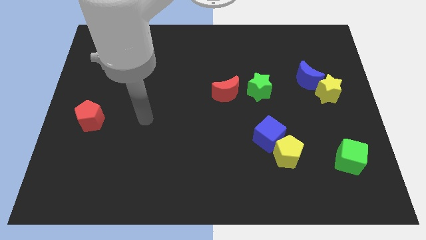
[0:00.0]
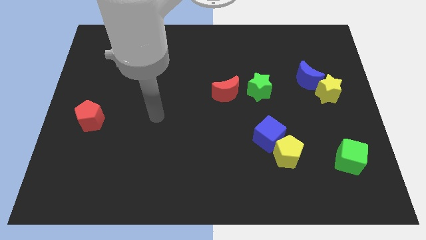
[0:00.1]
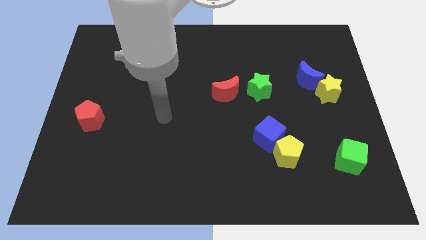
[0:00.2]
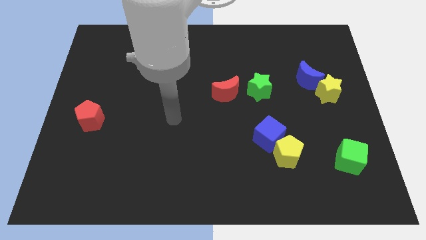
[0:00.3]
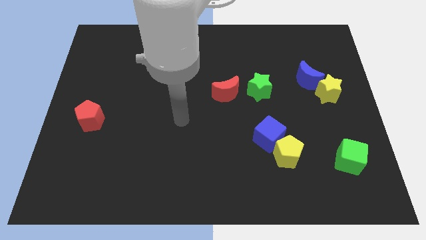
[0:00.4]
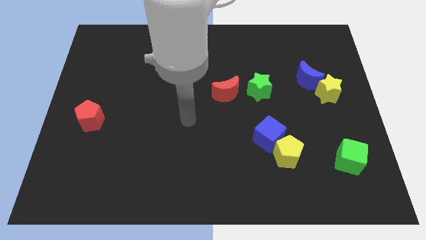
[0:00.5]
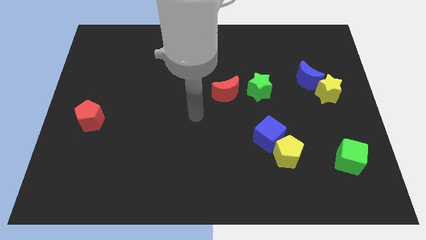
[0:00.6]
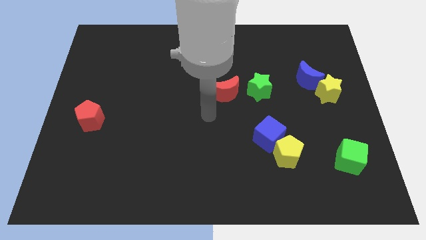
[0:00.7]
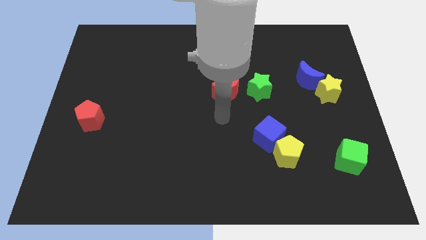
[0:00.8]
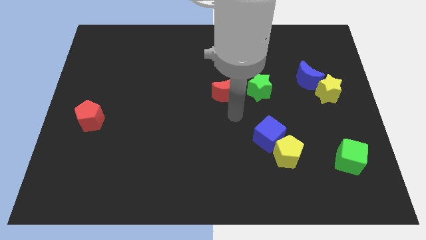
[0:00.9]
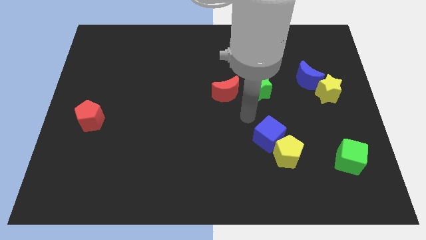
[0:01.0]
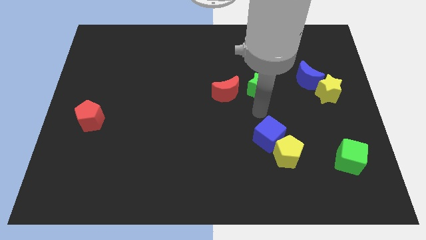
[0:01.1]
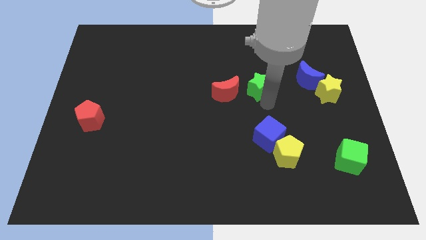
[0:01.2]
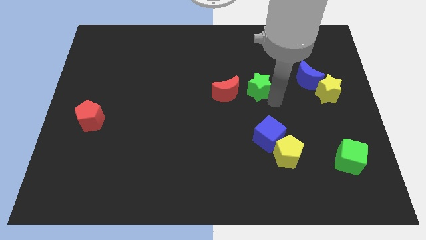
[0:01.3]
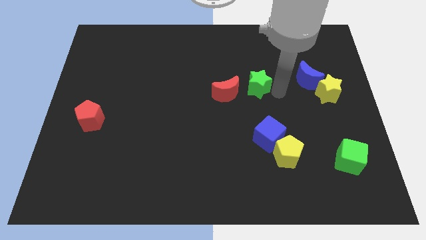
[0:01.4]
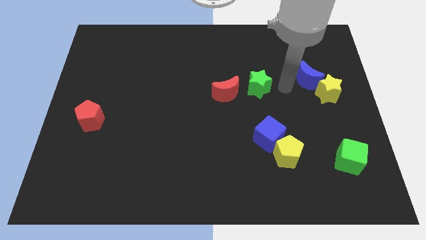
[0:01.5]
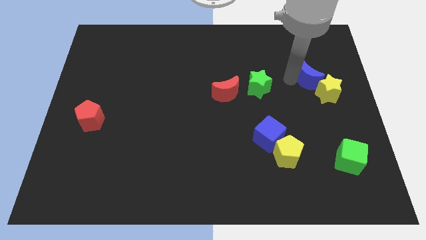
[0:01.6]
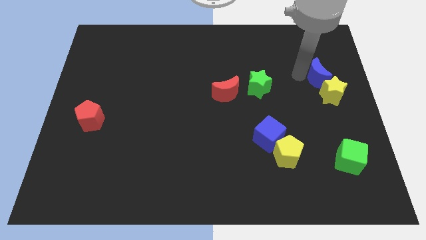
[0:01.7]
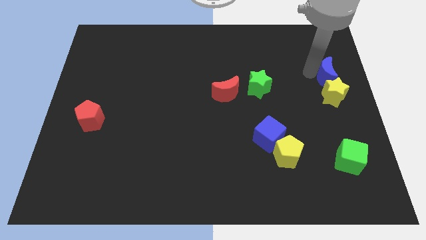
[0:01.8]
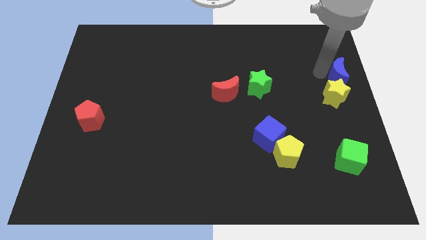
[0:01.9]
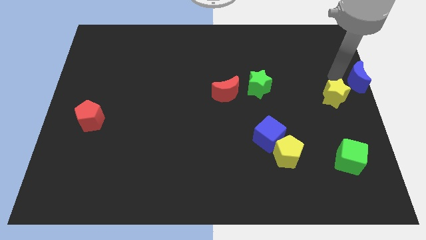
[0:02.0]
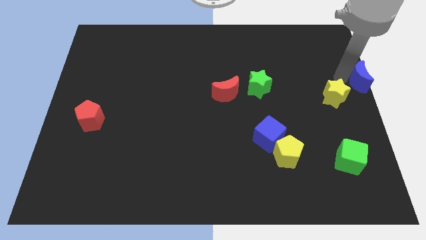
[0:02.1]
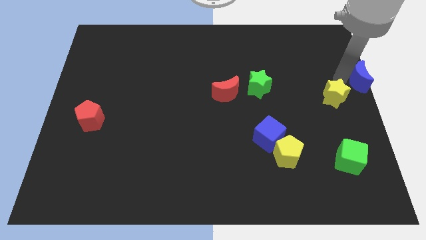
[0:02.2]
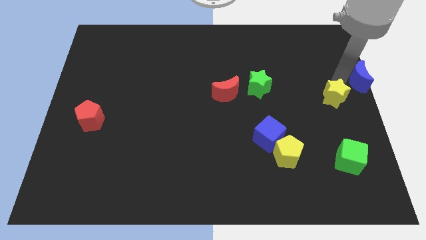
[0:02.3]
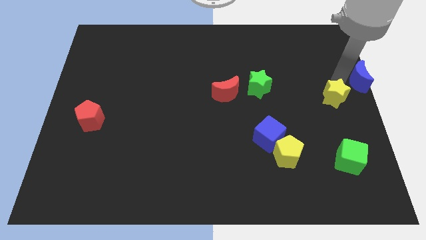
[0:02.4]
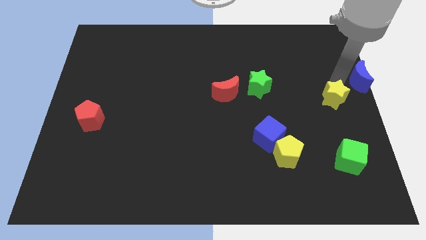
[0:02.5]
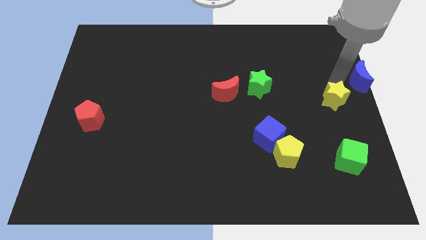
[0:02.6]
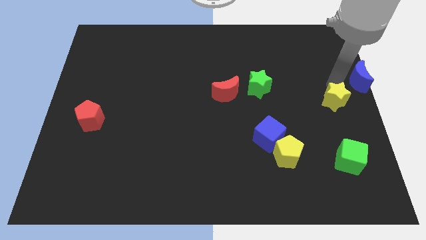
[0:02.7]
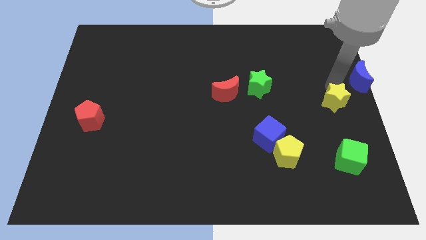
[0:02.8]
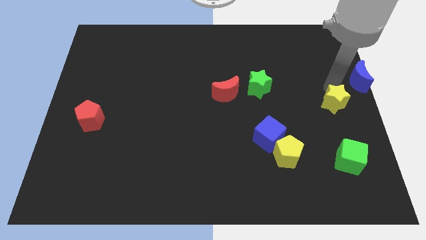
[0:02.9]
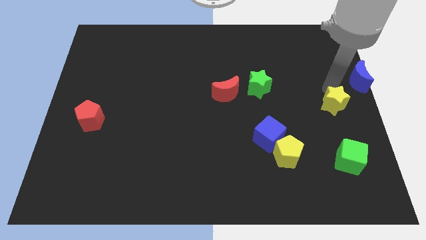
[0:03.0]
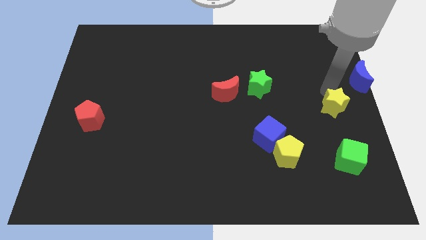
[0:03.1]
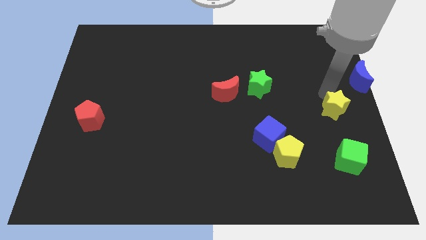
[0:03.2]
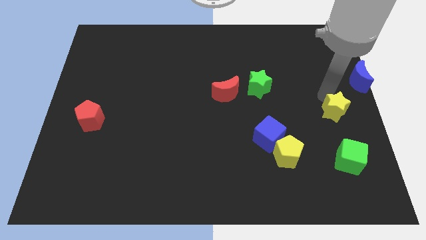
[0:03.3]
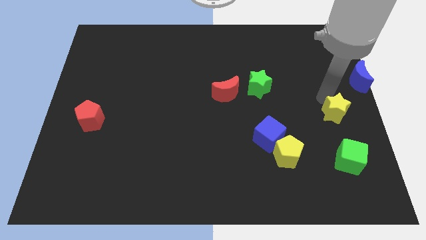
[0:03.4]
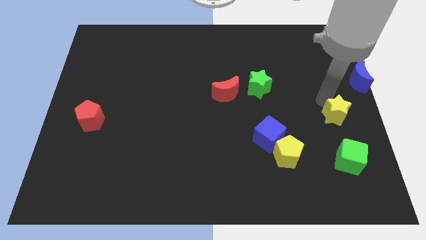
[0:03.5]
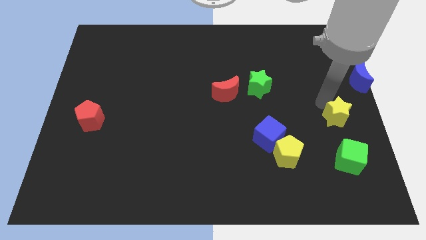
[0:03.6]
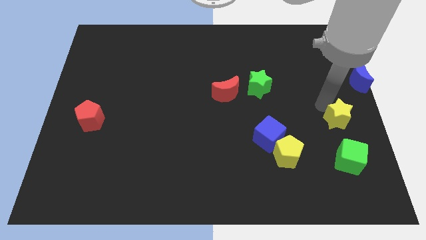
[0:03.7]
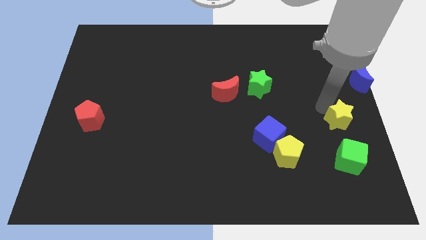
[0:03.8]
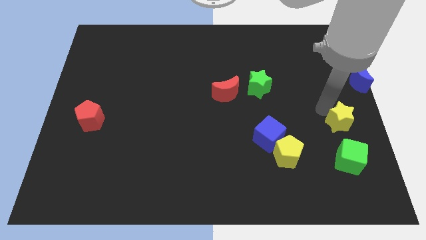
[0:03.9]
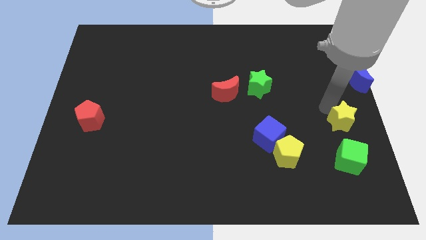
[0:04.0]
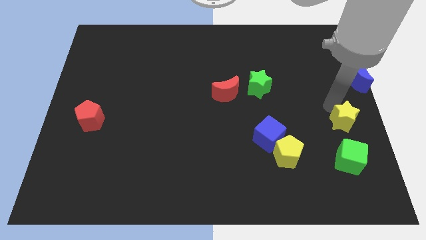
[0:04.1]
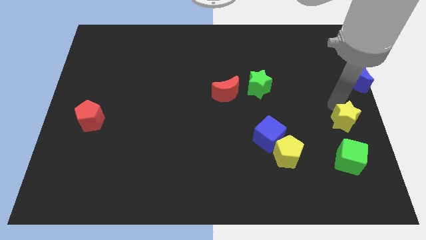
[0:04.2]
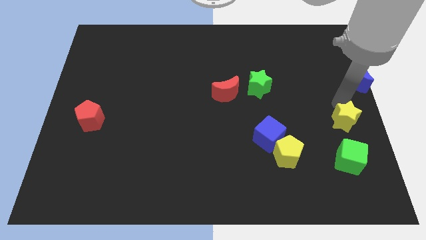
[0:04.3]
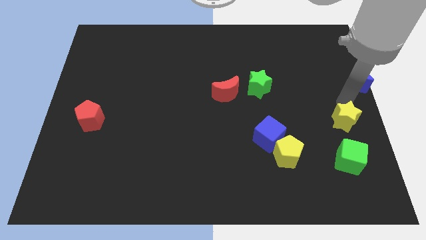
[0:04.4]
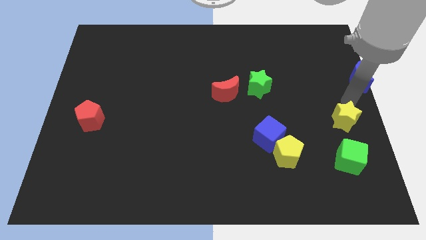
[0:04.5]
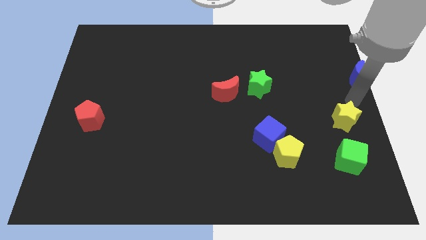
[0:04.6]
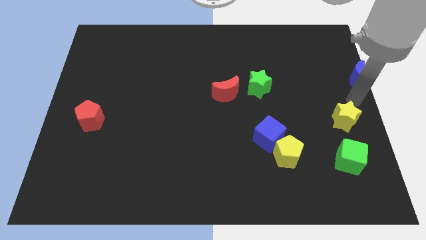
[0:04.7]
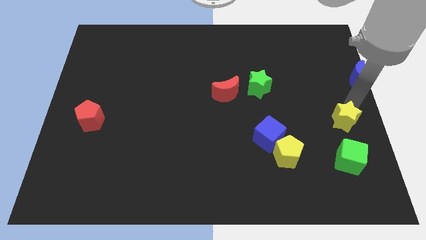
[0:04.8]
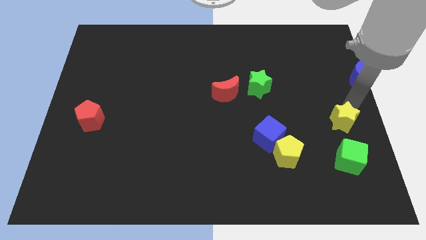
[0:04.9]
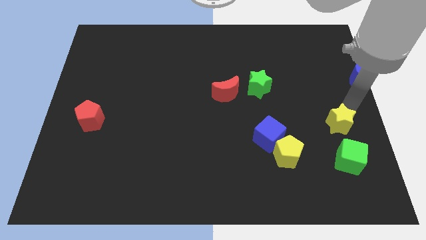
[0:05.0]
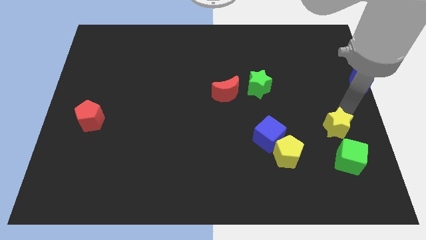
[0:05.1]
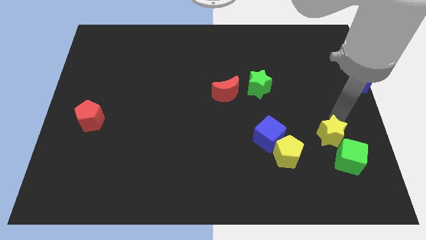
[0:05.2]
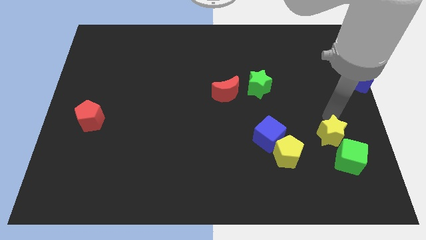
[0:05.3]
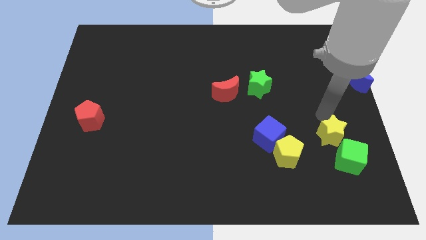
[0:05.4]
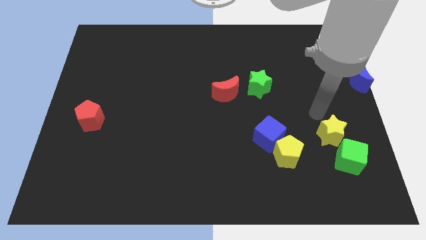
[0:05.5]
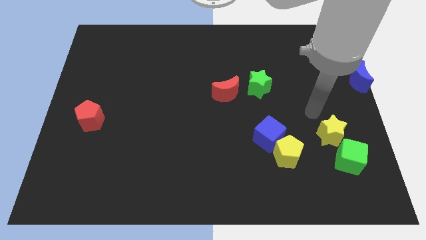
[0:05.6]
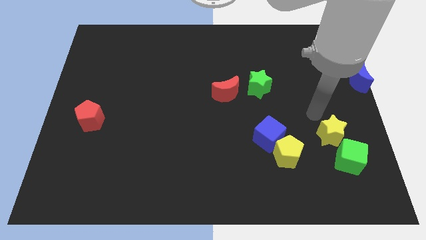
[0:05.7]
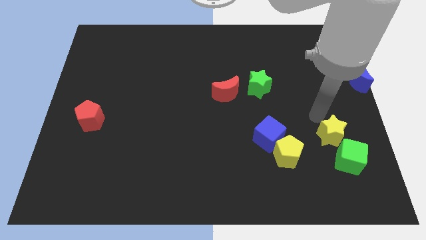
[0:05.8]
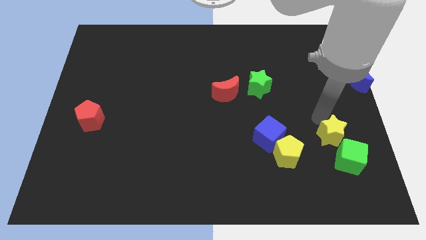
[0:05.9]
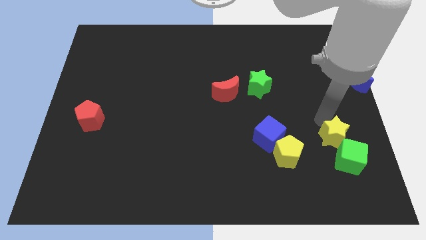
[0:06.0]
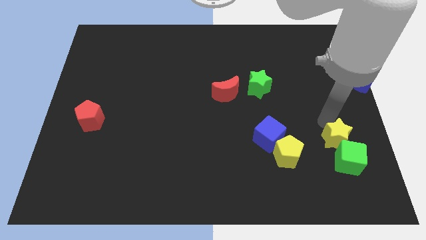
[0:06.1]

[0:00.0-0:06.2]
push the yellow star towards the green cube

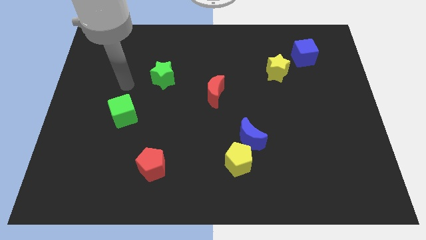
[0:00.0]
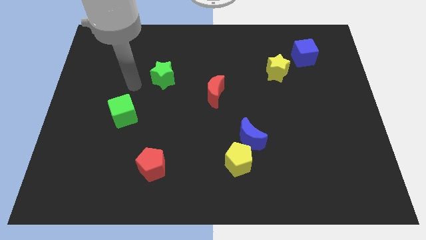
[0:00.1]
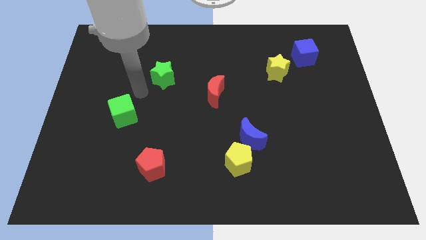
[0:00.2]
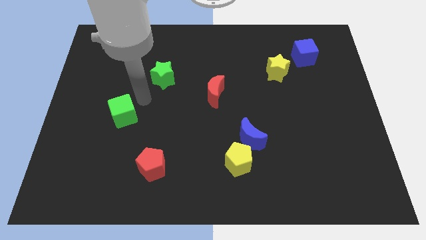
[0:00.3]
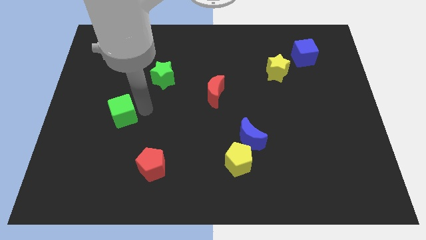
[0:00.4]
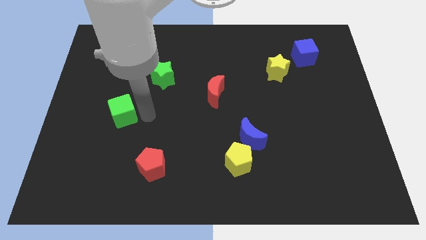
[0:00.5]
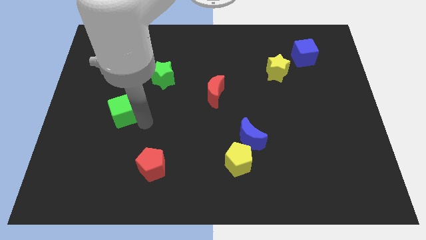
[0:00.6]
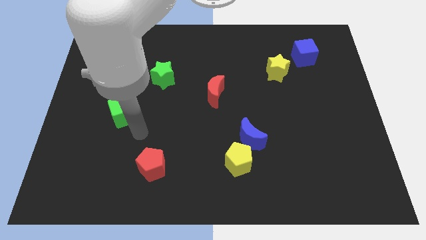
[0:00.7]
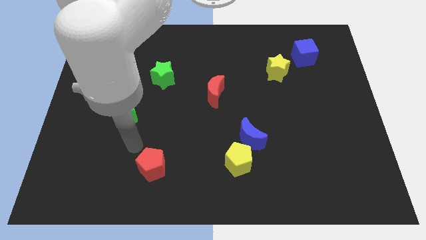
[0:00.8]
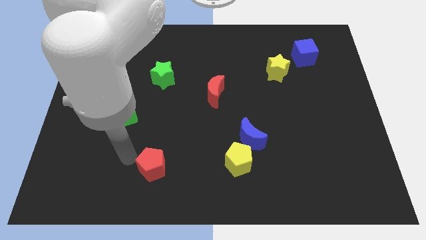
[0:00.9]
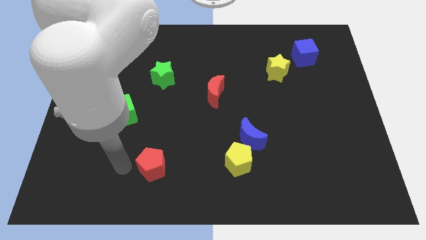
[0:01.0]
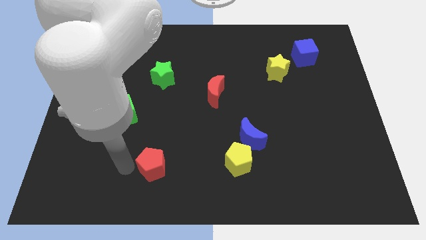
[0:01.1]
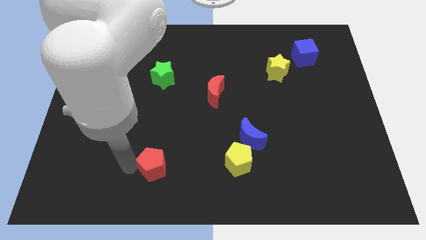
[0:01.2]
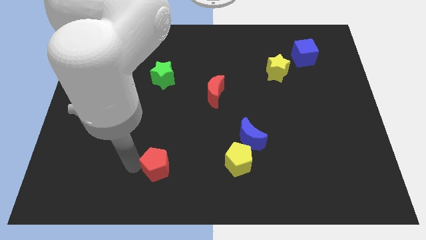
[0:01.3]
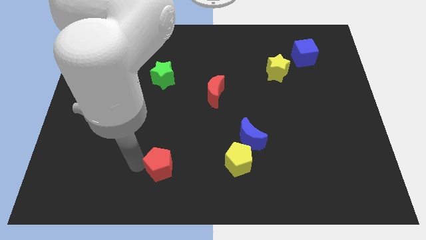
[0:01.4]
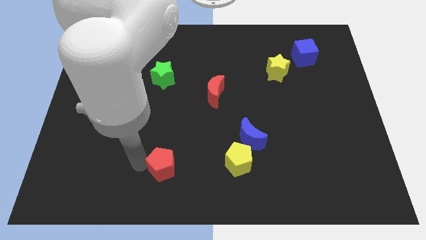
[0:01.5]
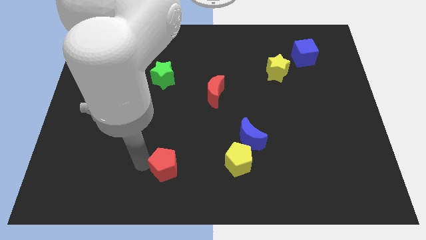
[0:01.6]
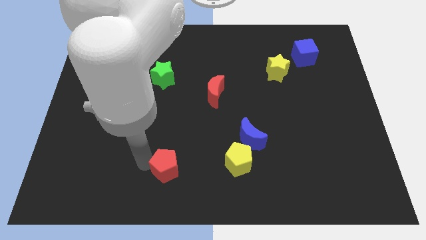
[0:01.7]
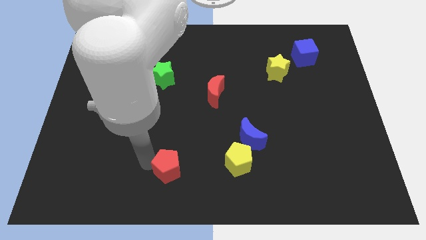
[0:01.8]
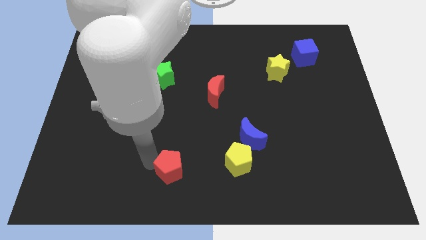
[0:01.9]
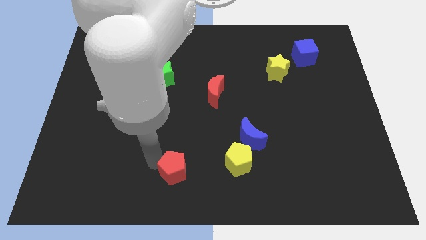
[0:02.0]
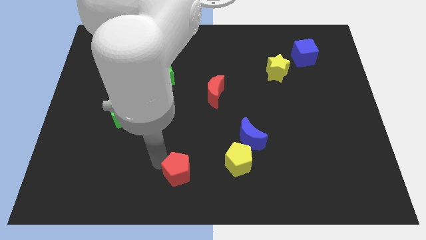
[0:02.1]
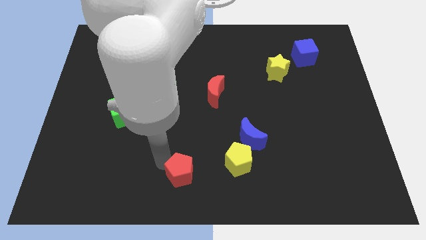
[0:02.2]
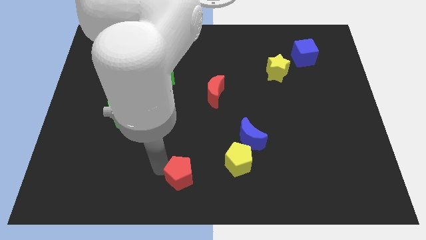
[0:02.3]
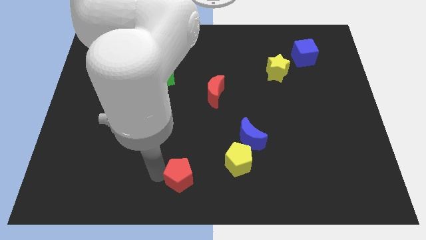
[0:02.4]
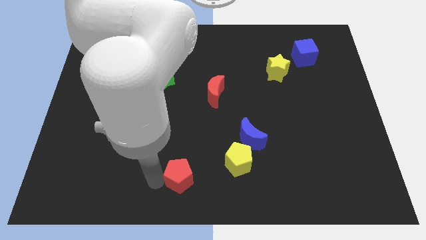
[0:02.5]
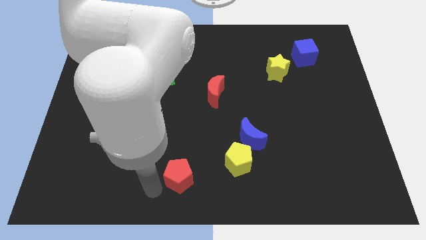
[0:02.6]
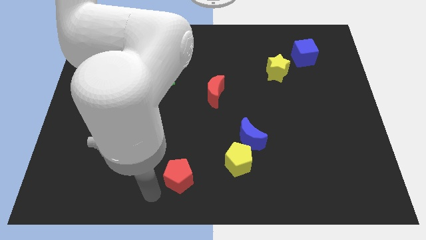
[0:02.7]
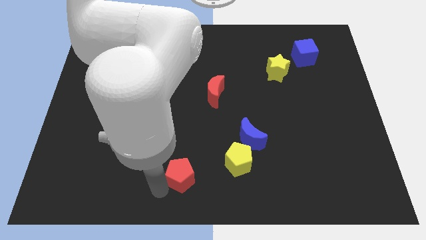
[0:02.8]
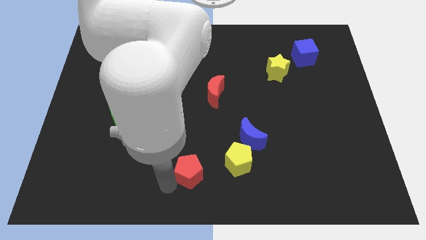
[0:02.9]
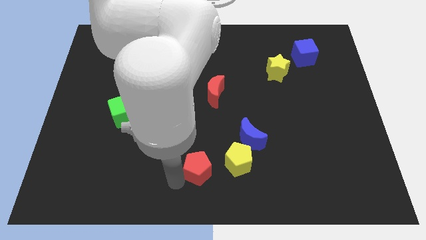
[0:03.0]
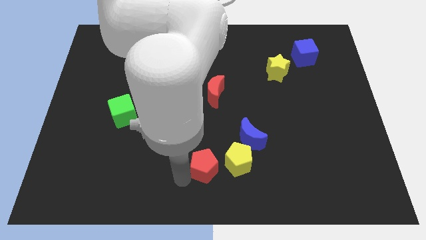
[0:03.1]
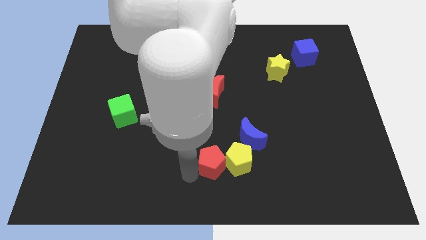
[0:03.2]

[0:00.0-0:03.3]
push the red pentagon towards the yellow pentagon
